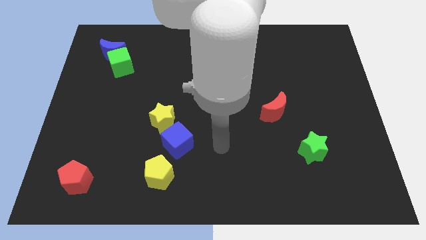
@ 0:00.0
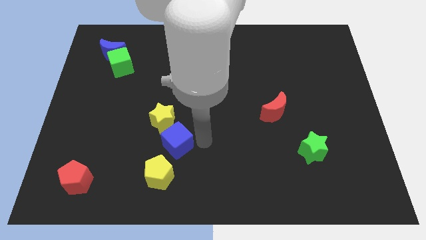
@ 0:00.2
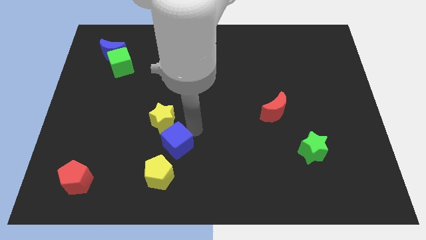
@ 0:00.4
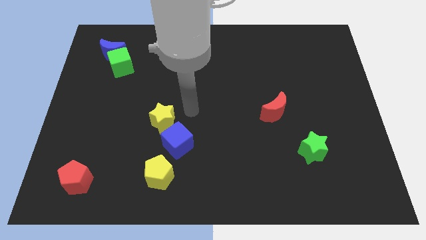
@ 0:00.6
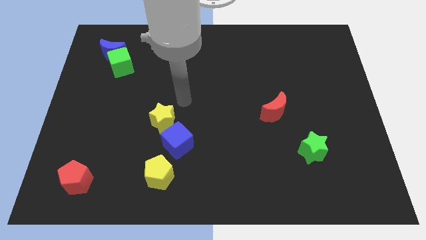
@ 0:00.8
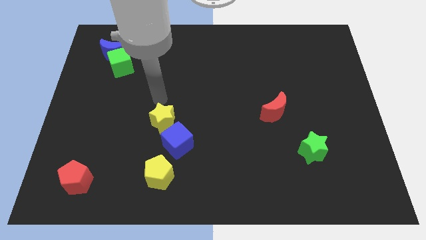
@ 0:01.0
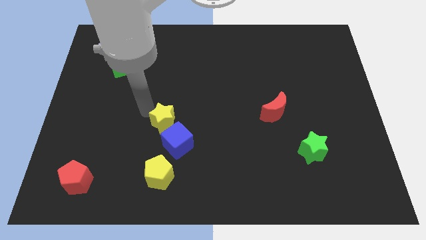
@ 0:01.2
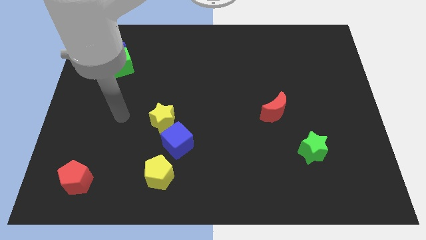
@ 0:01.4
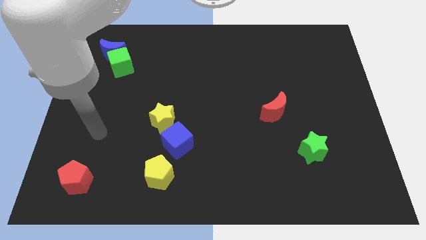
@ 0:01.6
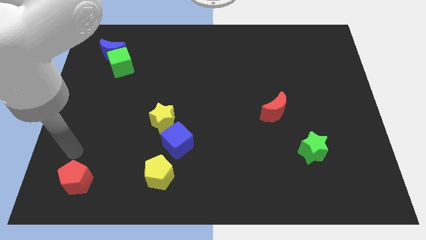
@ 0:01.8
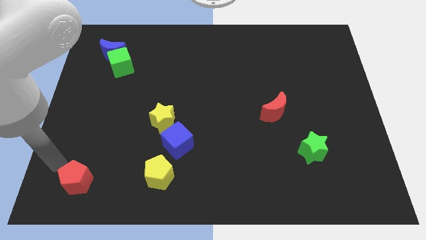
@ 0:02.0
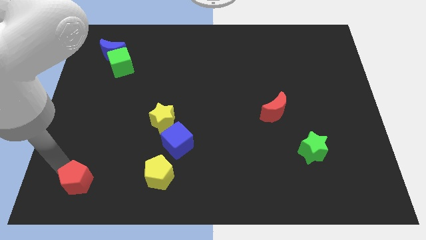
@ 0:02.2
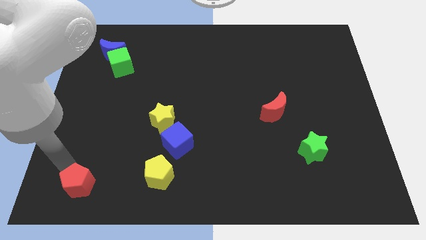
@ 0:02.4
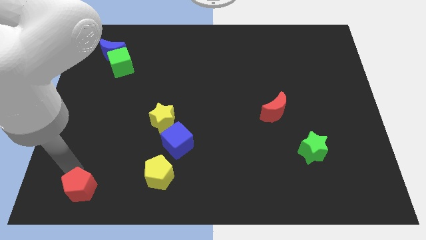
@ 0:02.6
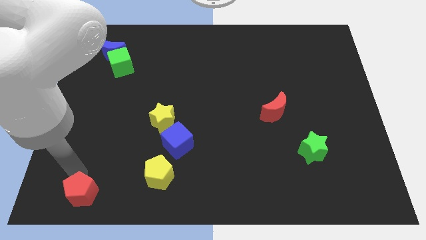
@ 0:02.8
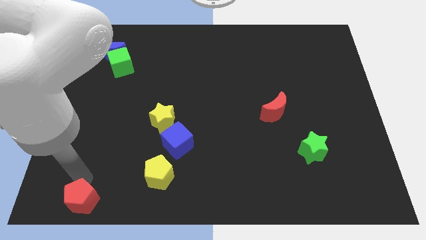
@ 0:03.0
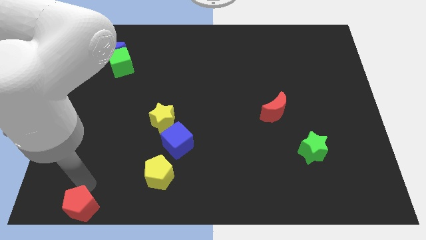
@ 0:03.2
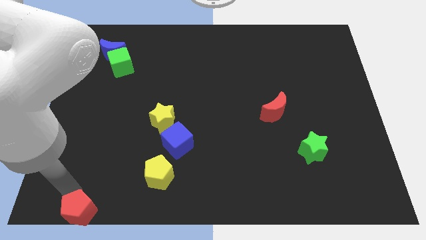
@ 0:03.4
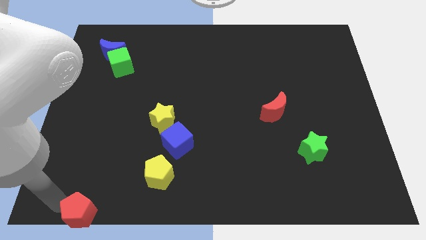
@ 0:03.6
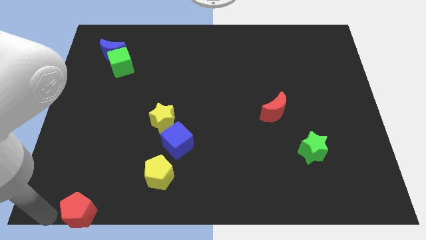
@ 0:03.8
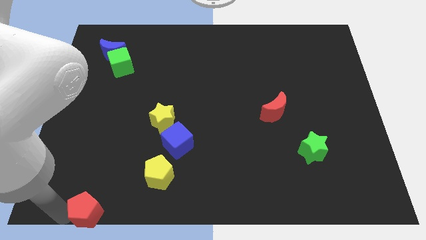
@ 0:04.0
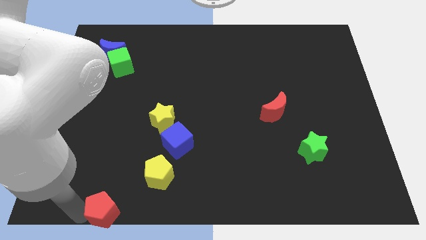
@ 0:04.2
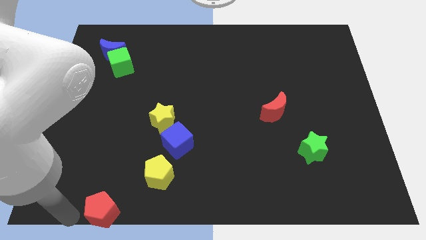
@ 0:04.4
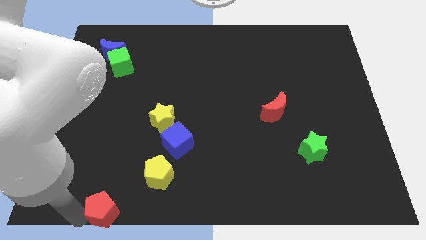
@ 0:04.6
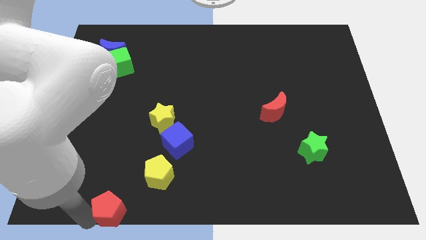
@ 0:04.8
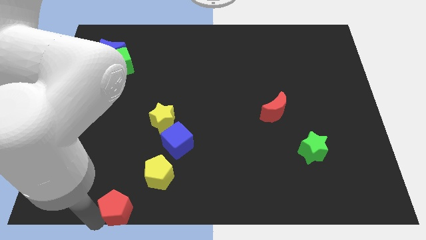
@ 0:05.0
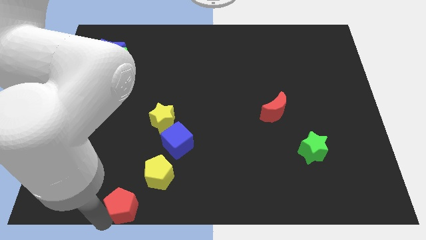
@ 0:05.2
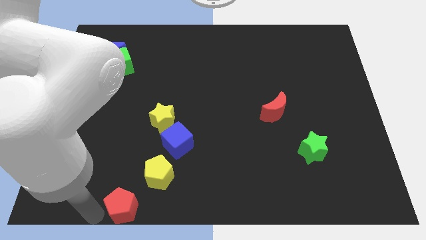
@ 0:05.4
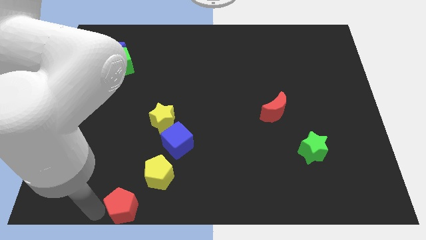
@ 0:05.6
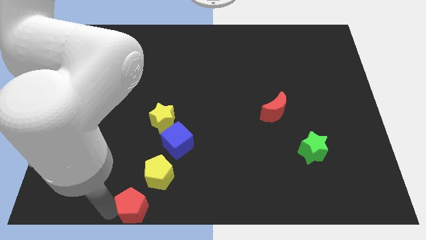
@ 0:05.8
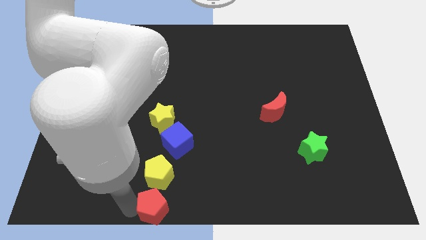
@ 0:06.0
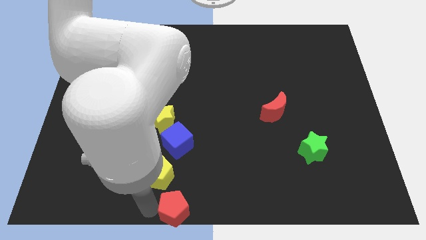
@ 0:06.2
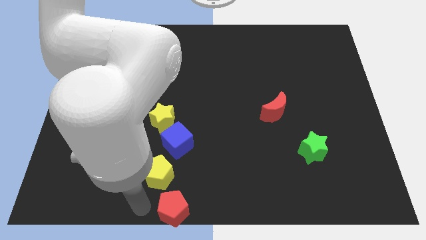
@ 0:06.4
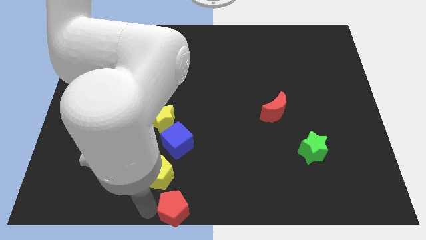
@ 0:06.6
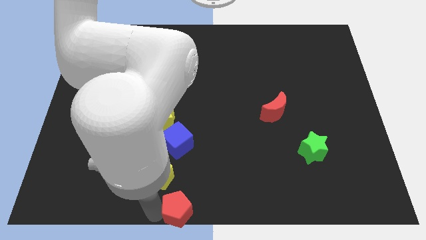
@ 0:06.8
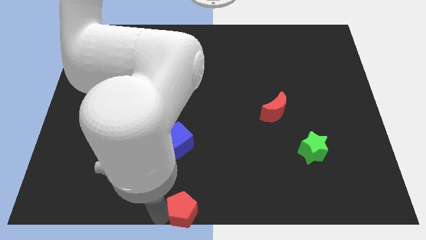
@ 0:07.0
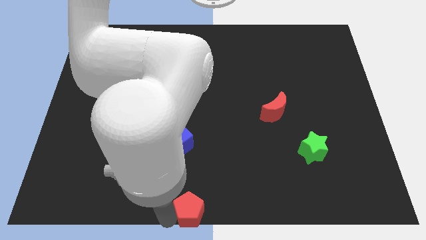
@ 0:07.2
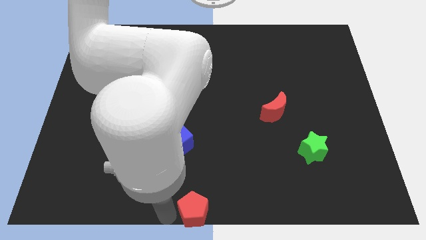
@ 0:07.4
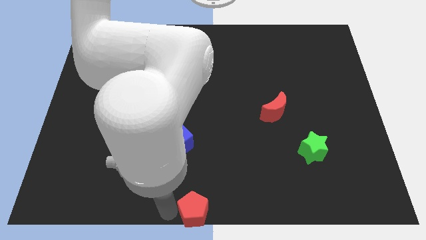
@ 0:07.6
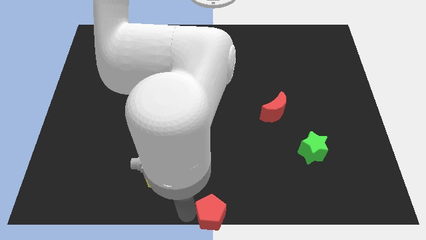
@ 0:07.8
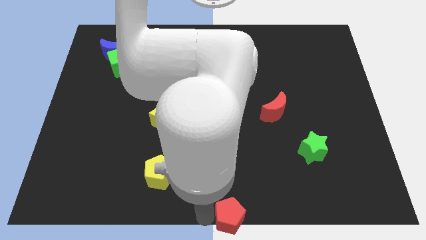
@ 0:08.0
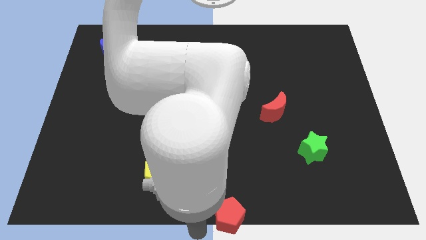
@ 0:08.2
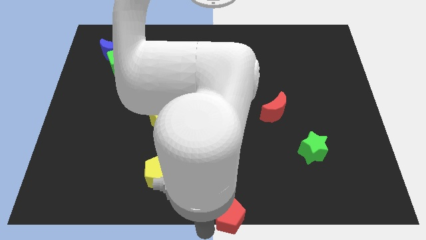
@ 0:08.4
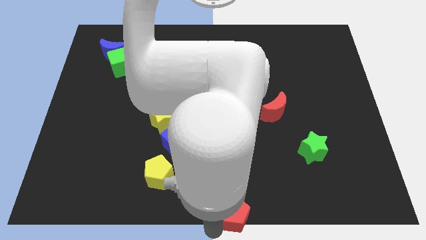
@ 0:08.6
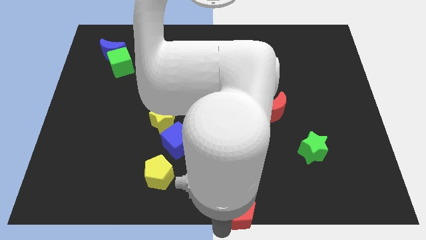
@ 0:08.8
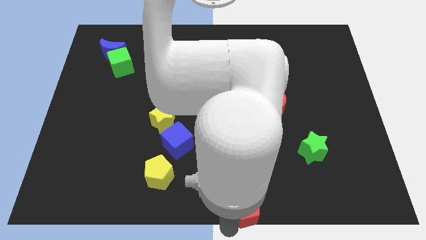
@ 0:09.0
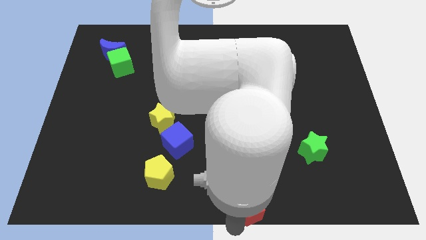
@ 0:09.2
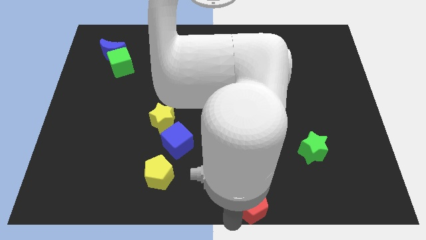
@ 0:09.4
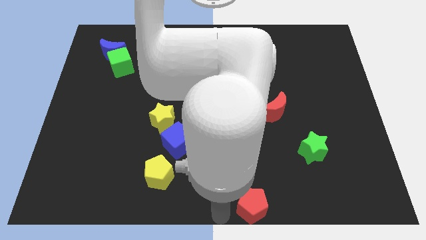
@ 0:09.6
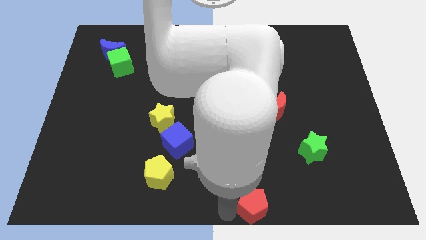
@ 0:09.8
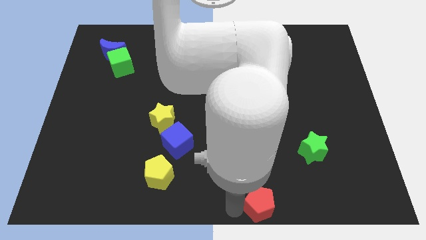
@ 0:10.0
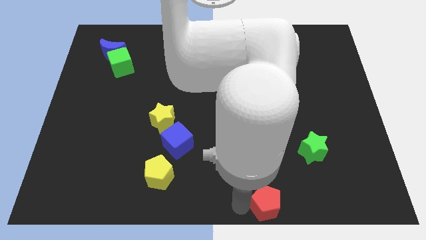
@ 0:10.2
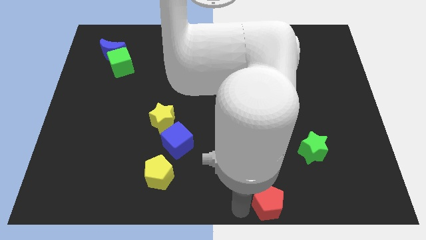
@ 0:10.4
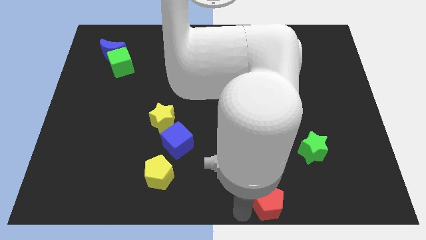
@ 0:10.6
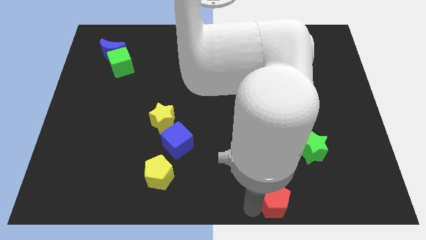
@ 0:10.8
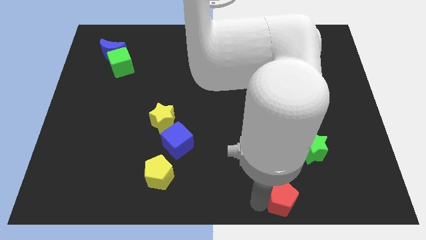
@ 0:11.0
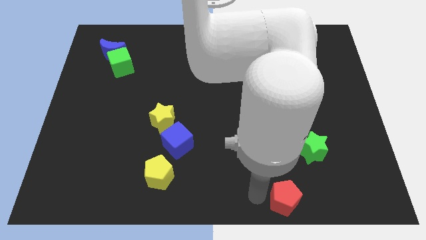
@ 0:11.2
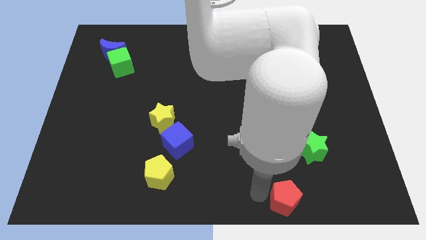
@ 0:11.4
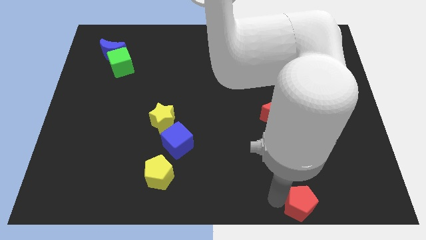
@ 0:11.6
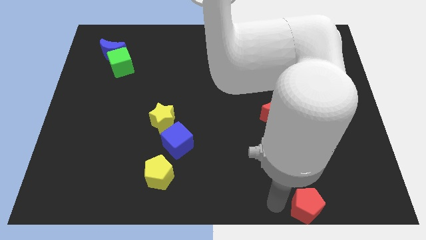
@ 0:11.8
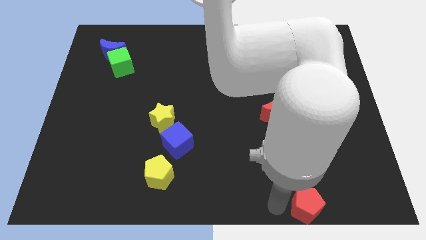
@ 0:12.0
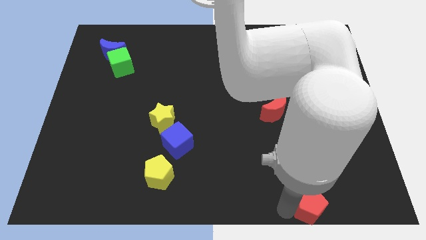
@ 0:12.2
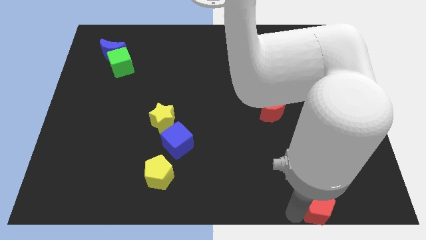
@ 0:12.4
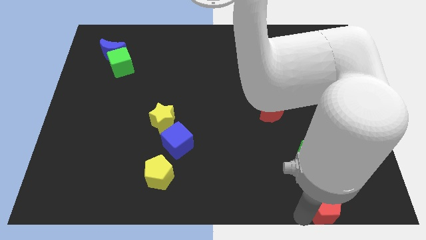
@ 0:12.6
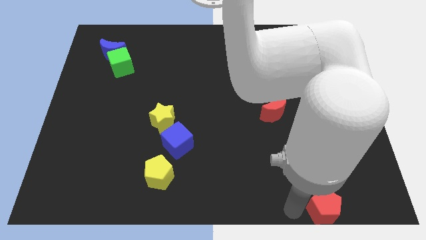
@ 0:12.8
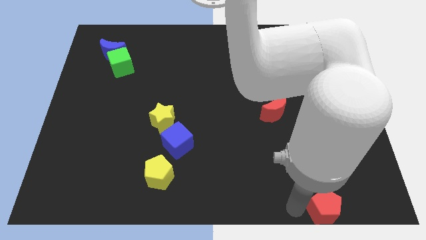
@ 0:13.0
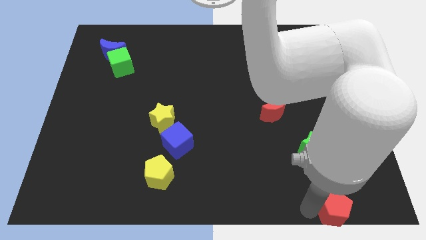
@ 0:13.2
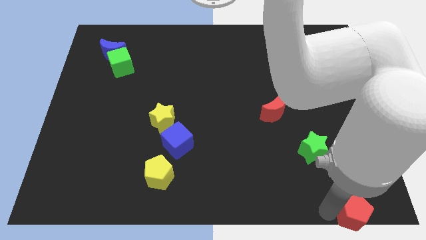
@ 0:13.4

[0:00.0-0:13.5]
put the red pentagon to the bottom right of the board

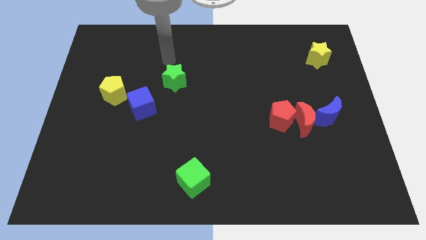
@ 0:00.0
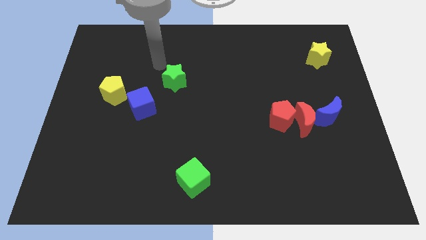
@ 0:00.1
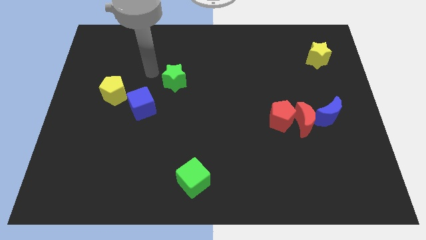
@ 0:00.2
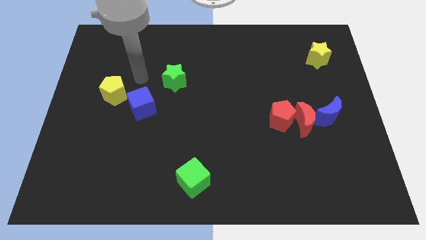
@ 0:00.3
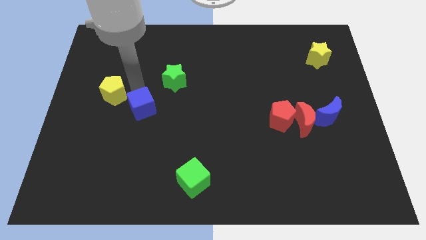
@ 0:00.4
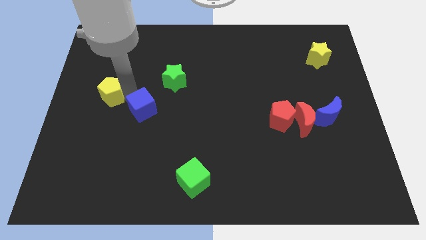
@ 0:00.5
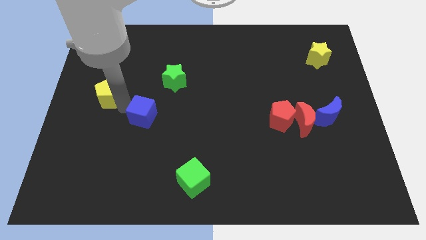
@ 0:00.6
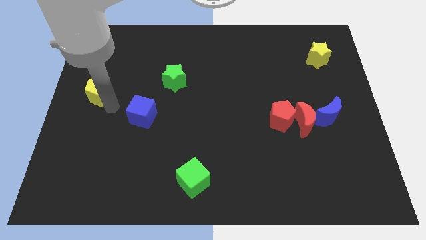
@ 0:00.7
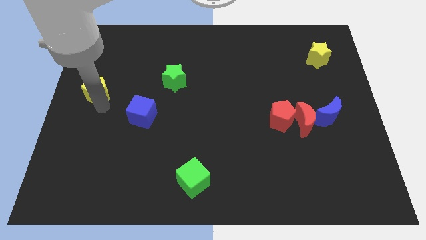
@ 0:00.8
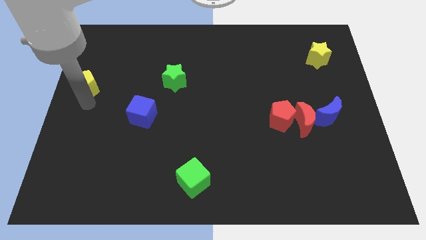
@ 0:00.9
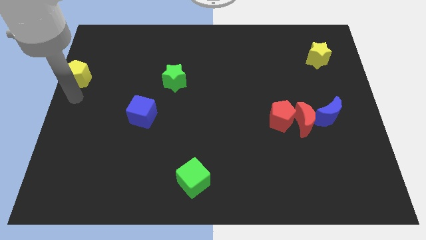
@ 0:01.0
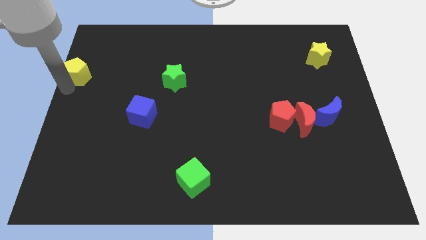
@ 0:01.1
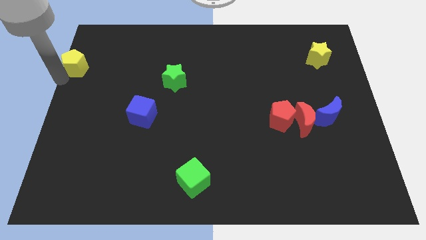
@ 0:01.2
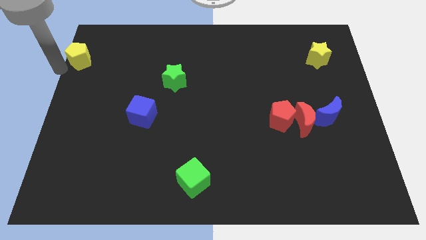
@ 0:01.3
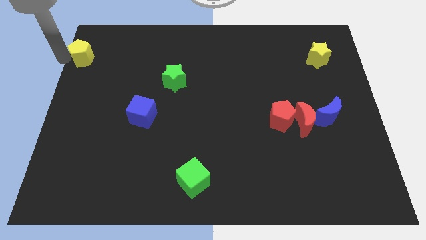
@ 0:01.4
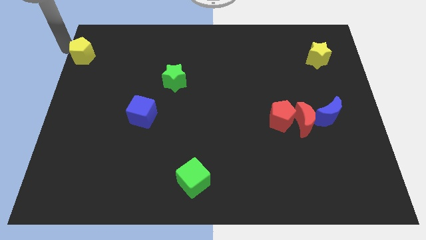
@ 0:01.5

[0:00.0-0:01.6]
push the yellow pentagon to the upper left corner
